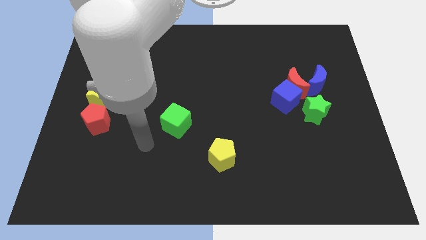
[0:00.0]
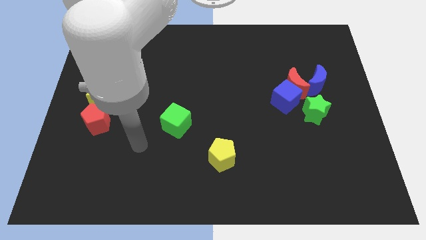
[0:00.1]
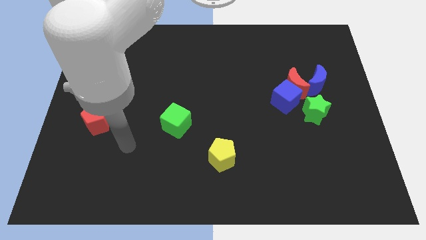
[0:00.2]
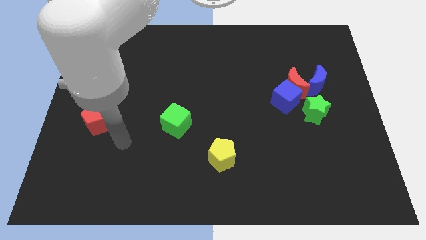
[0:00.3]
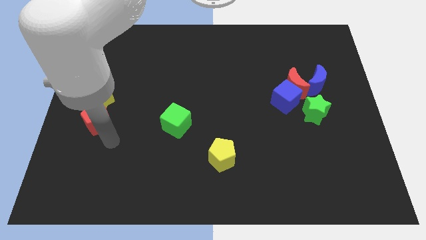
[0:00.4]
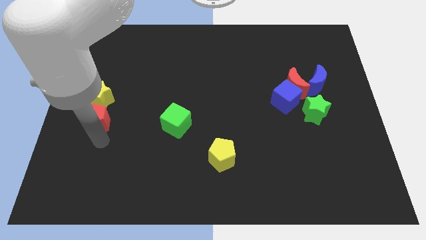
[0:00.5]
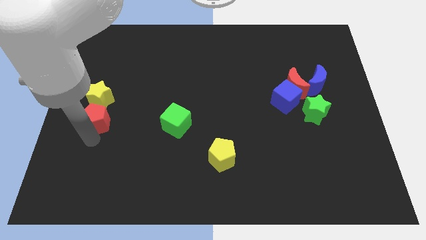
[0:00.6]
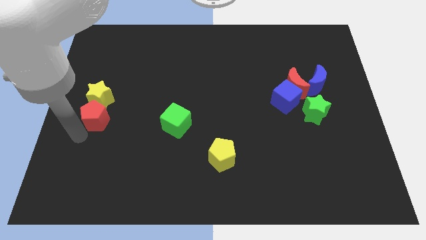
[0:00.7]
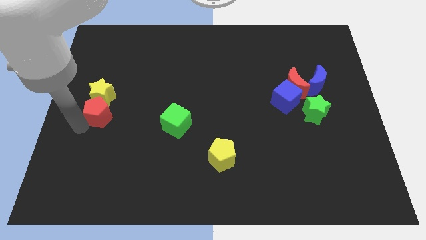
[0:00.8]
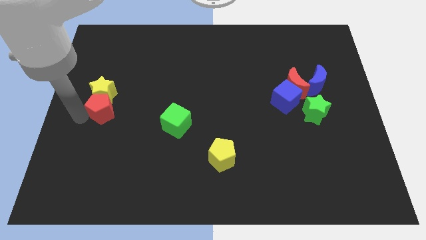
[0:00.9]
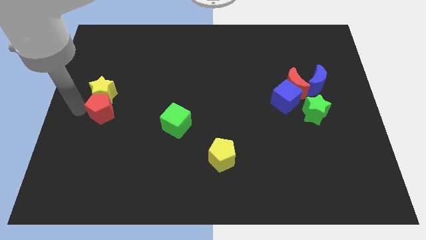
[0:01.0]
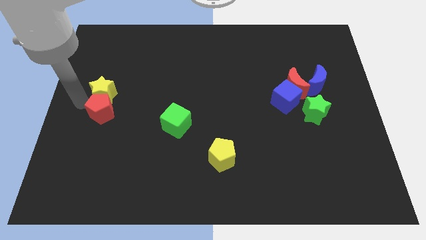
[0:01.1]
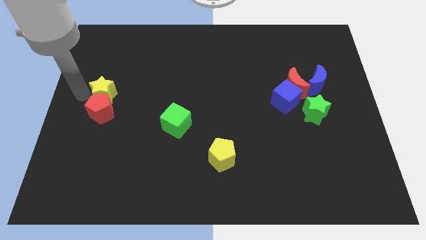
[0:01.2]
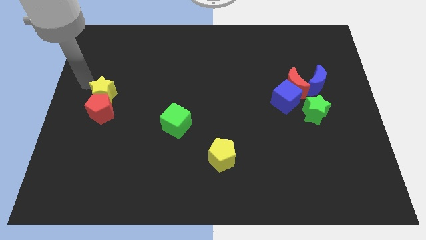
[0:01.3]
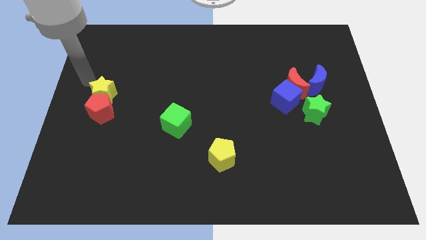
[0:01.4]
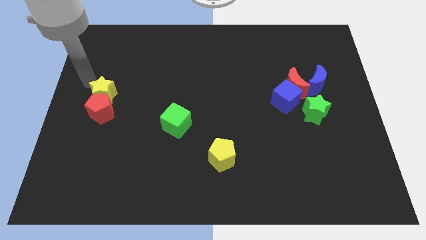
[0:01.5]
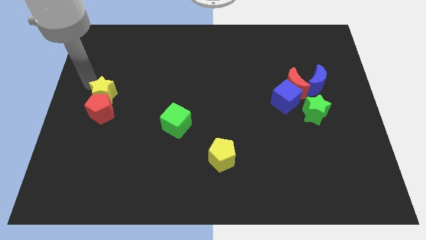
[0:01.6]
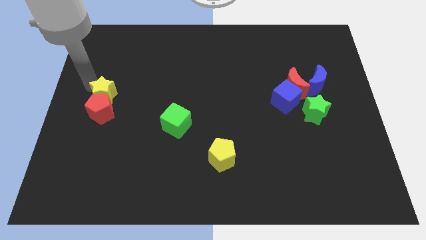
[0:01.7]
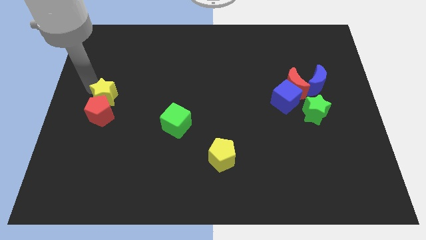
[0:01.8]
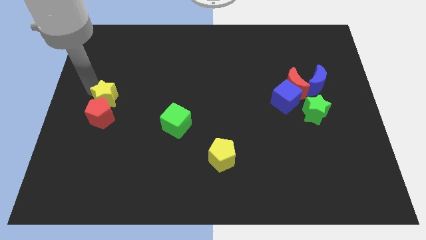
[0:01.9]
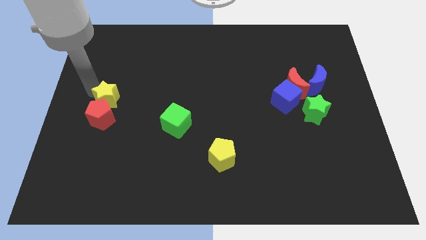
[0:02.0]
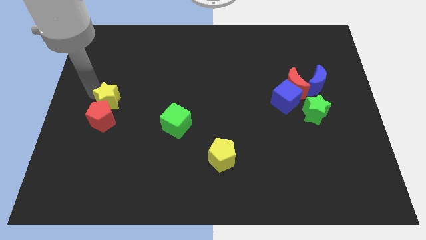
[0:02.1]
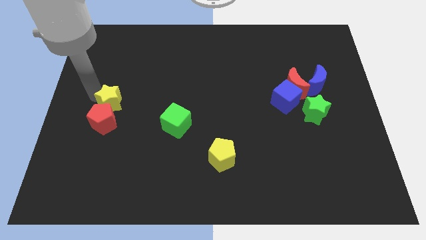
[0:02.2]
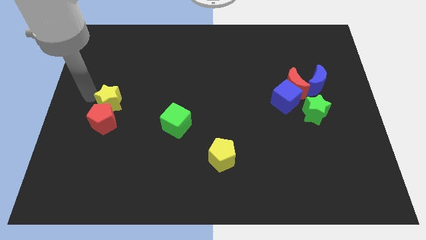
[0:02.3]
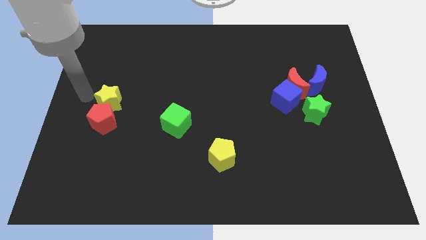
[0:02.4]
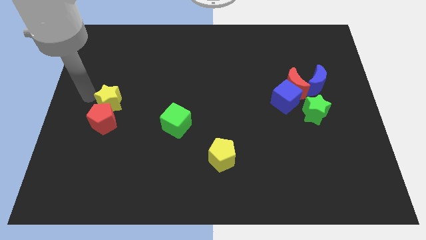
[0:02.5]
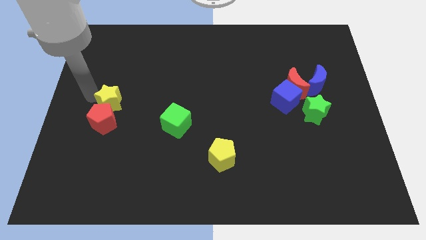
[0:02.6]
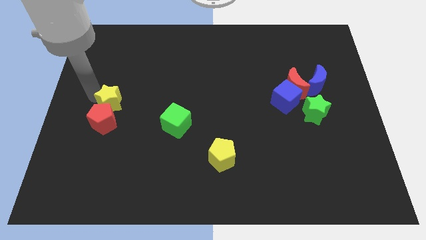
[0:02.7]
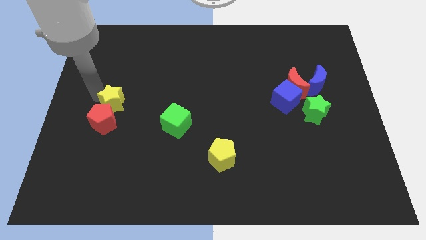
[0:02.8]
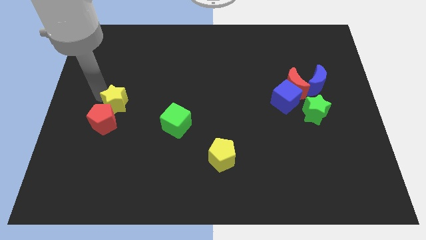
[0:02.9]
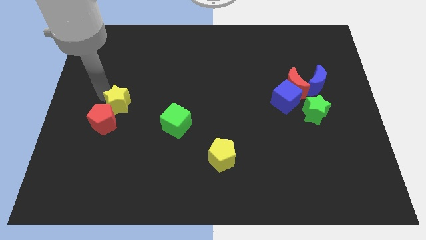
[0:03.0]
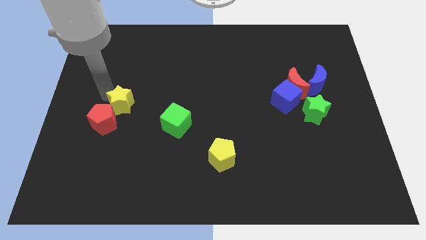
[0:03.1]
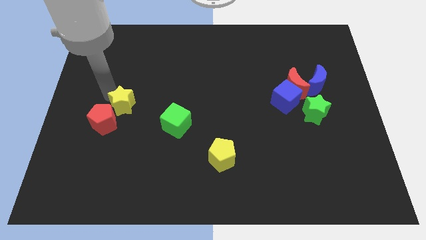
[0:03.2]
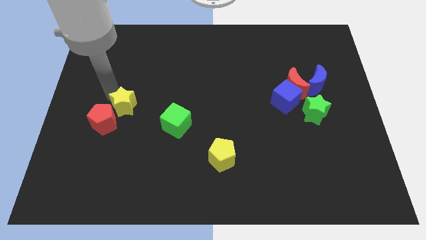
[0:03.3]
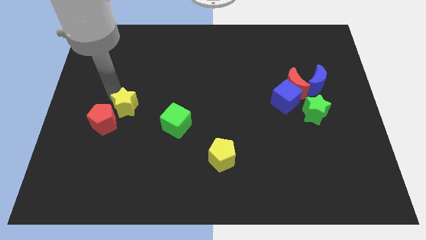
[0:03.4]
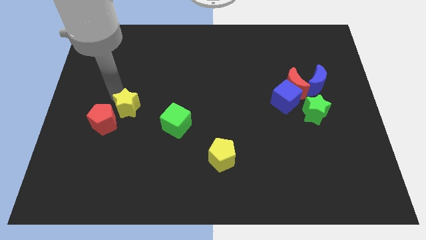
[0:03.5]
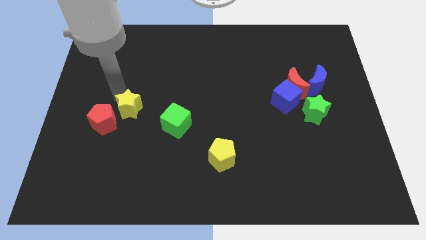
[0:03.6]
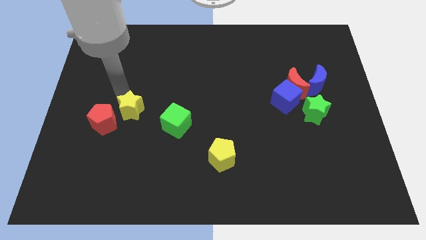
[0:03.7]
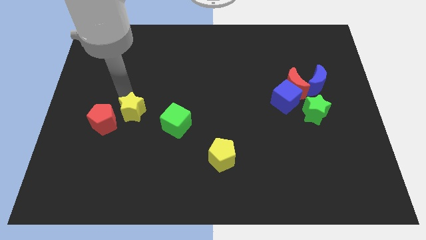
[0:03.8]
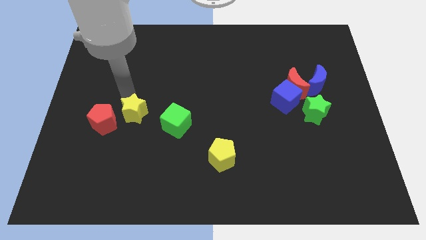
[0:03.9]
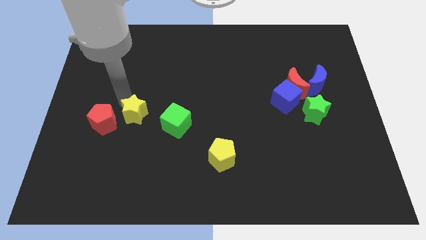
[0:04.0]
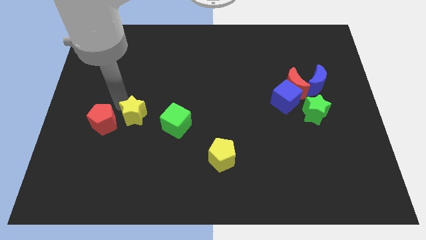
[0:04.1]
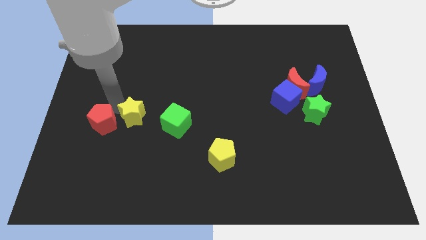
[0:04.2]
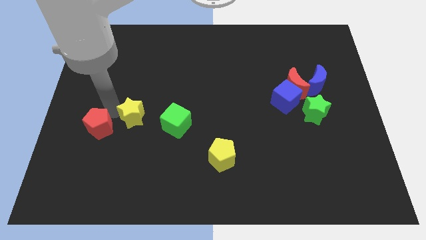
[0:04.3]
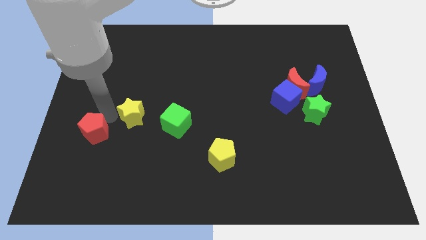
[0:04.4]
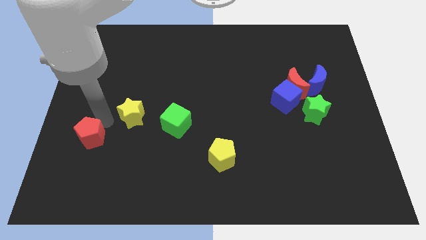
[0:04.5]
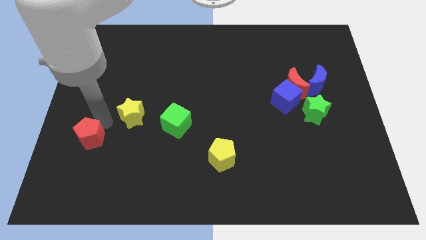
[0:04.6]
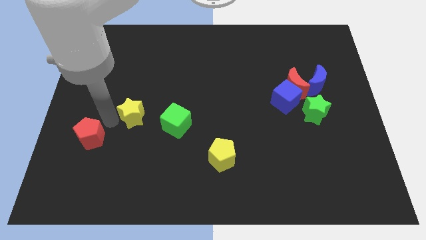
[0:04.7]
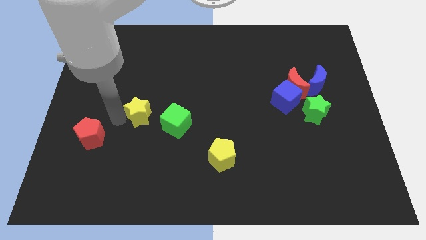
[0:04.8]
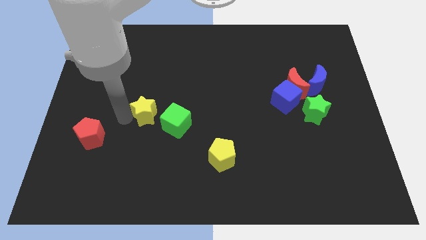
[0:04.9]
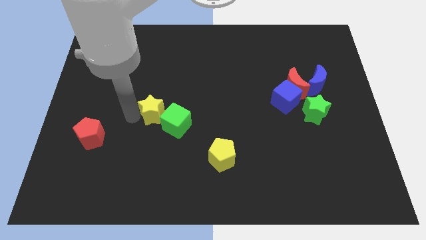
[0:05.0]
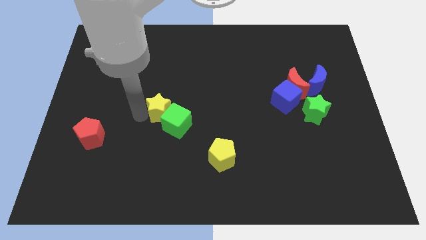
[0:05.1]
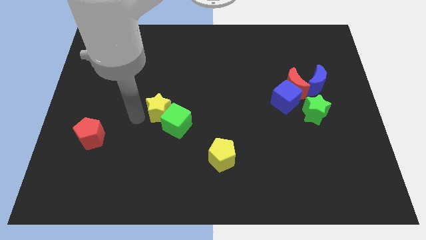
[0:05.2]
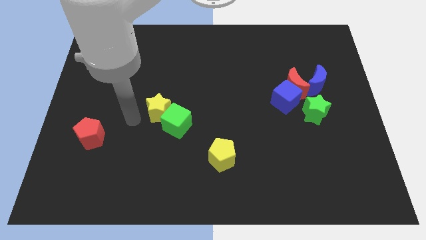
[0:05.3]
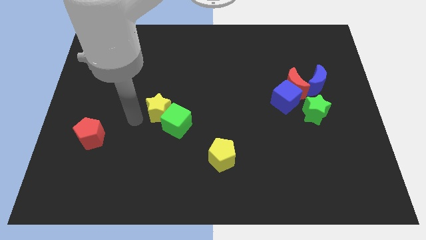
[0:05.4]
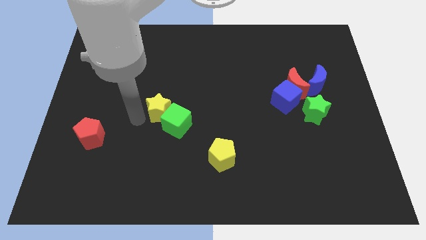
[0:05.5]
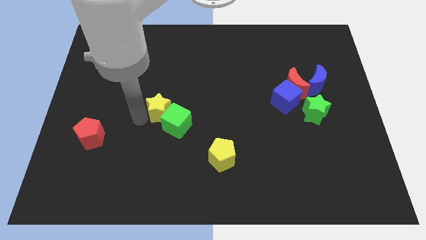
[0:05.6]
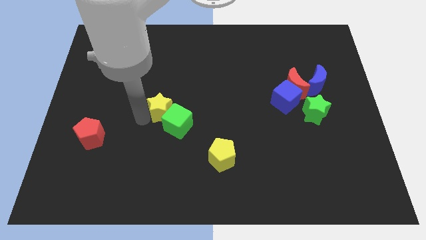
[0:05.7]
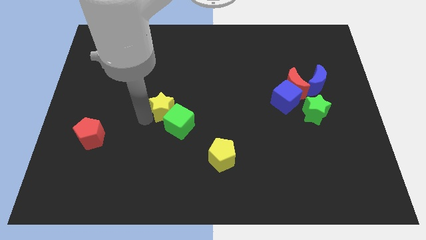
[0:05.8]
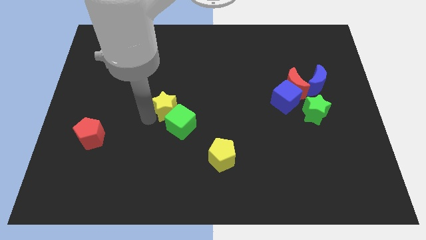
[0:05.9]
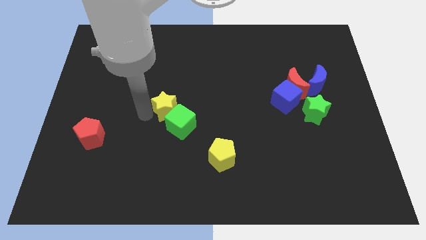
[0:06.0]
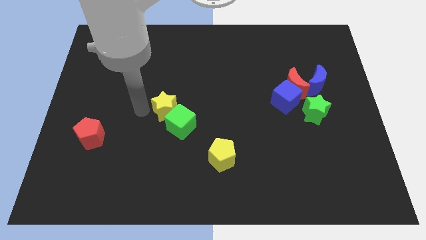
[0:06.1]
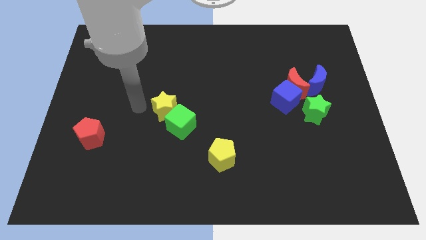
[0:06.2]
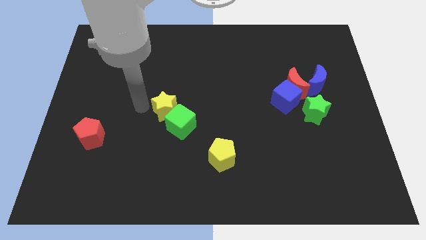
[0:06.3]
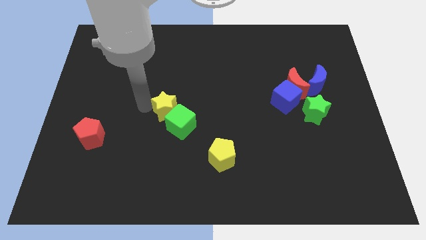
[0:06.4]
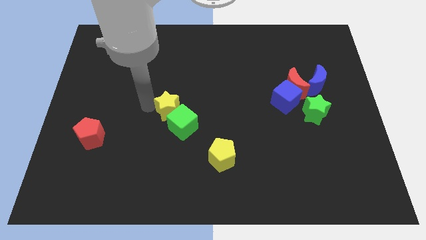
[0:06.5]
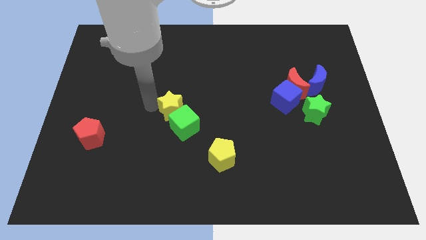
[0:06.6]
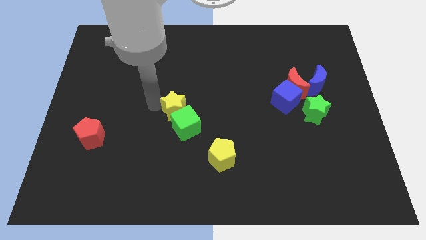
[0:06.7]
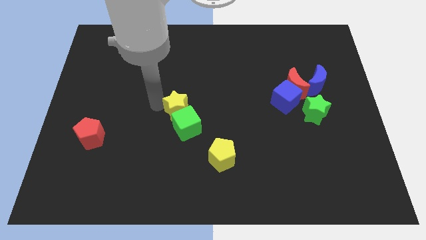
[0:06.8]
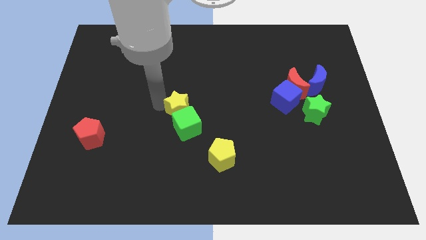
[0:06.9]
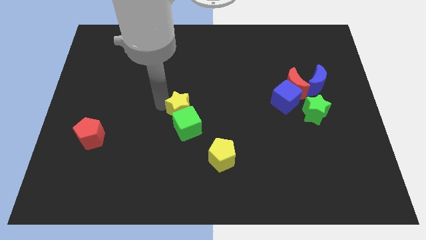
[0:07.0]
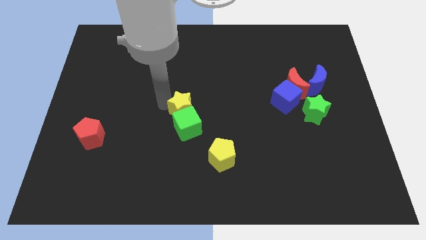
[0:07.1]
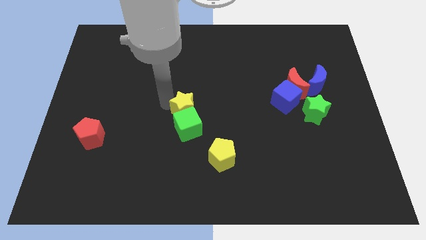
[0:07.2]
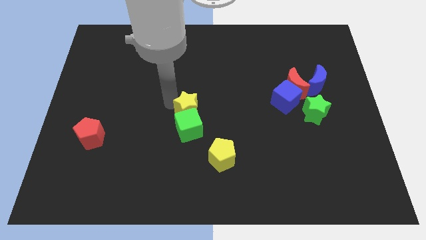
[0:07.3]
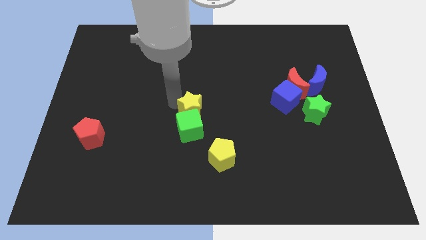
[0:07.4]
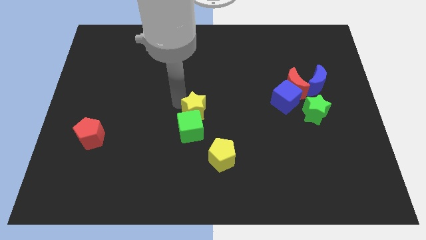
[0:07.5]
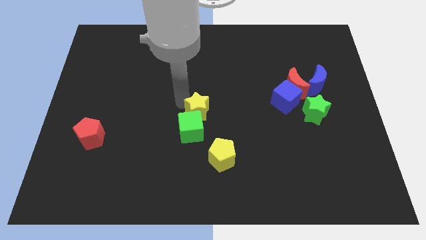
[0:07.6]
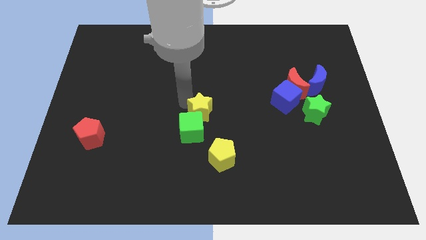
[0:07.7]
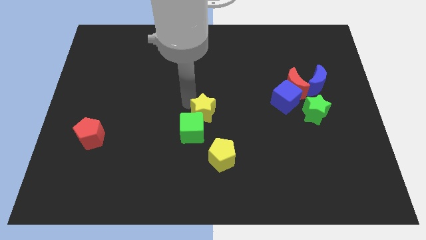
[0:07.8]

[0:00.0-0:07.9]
put the yellow star to the top of the yellow pentagon
